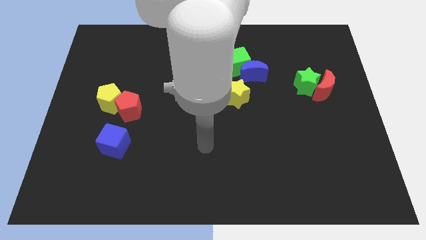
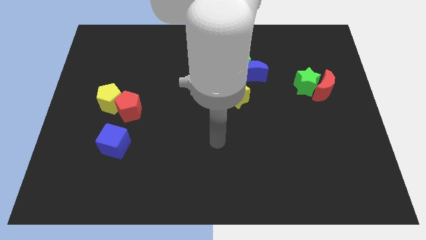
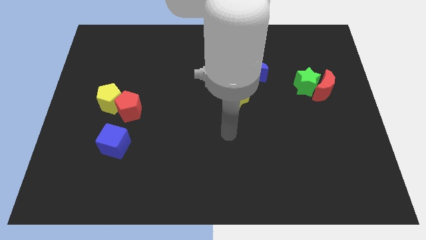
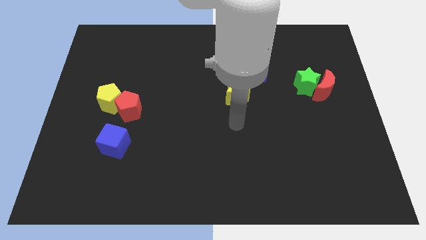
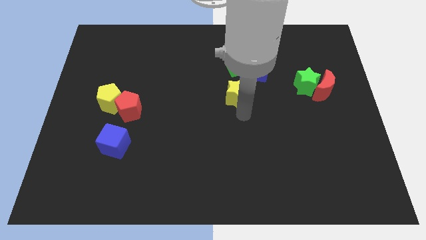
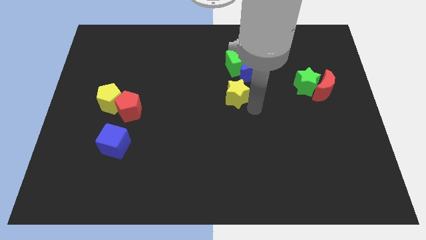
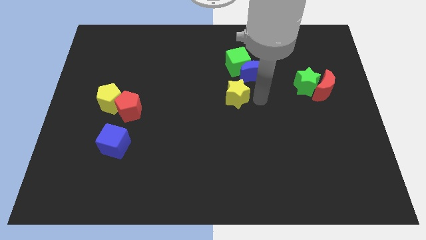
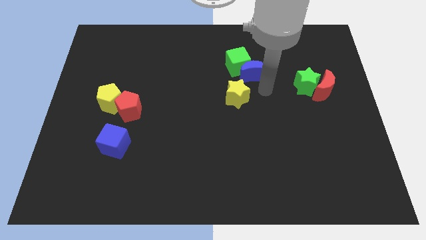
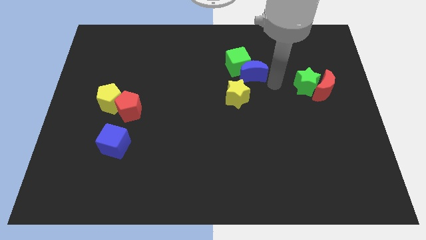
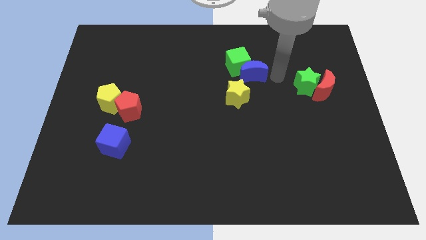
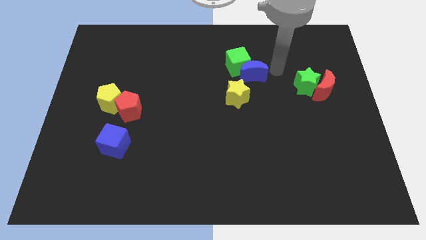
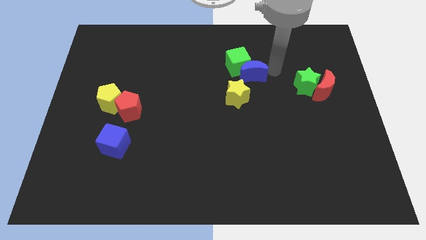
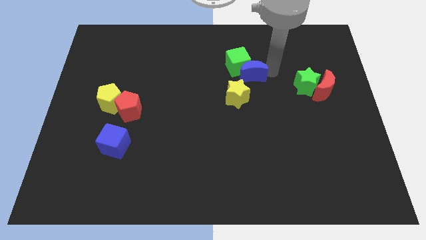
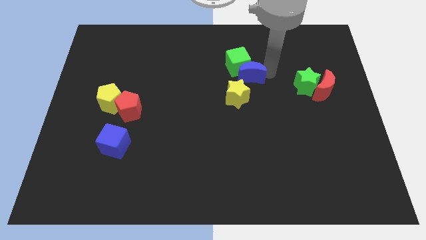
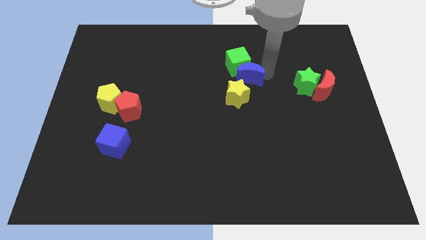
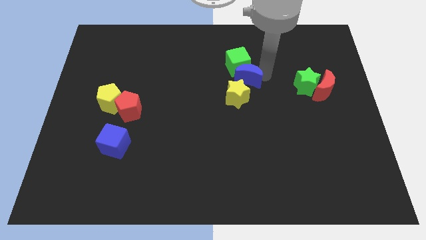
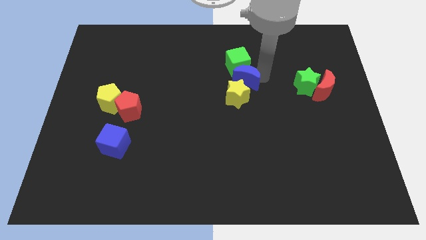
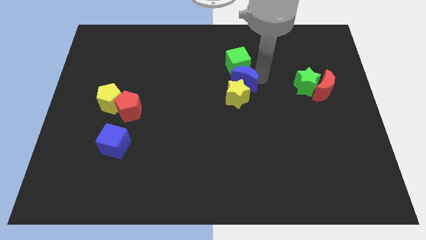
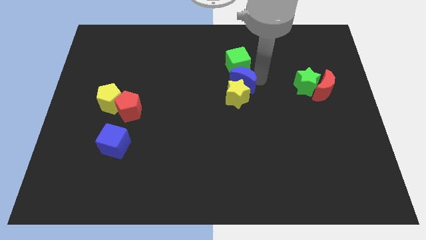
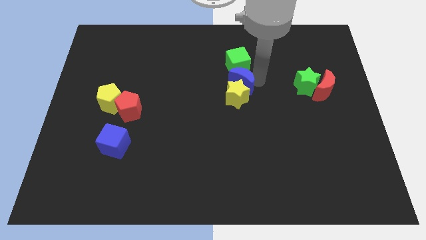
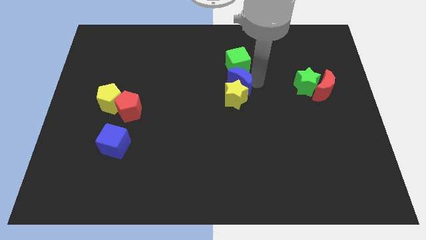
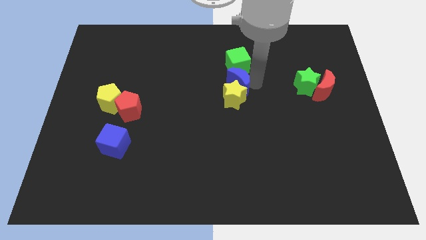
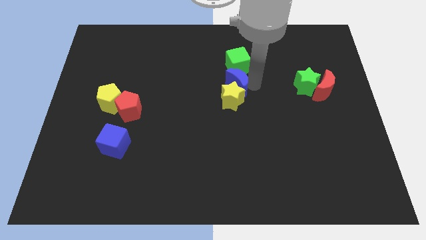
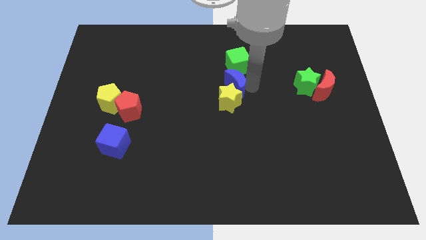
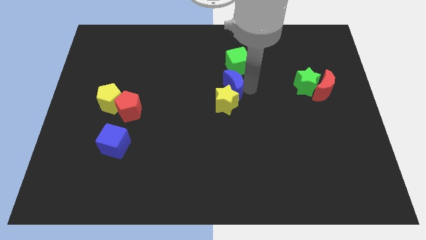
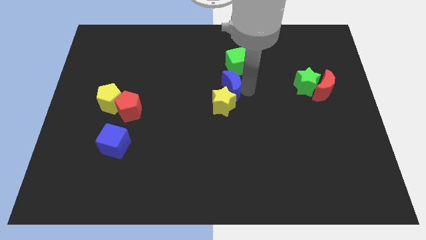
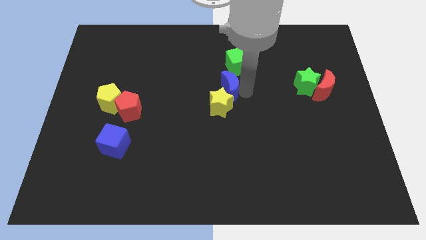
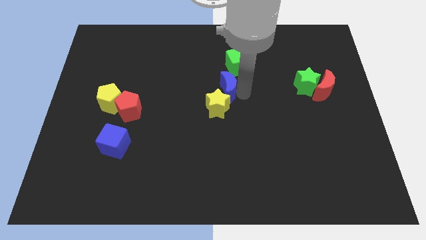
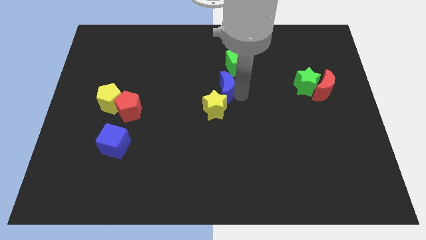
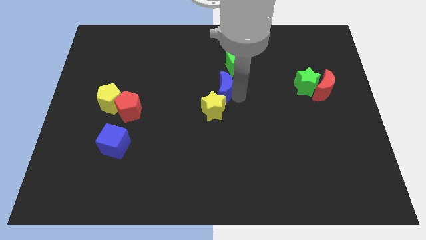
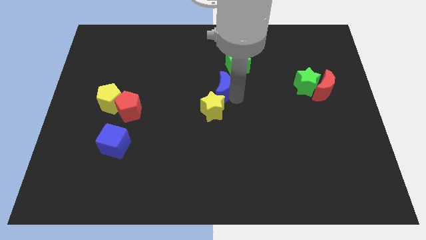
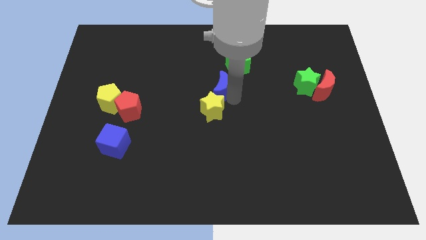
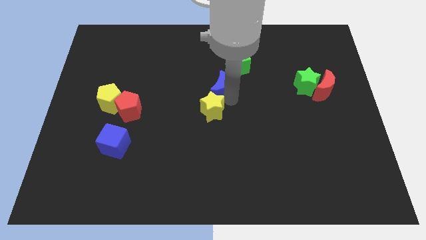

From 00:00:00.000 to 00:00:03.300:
push the blue moon to the left slightly

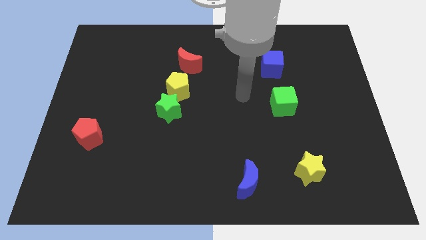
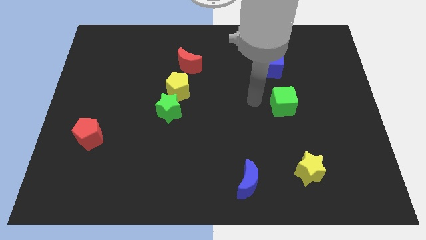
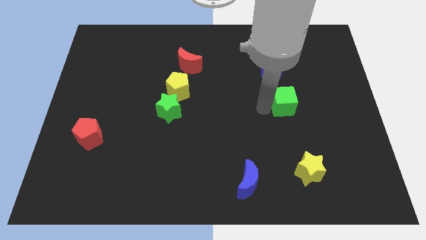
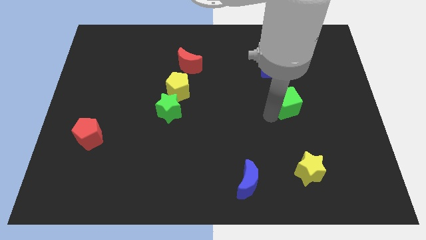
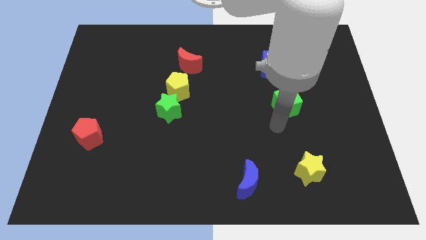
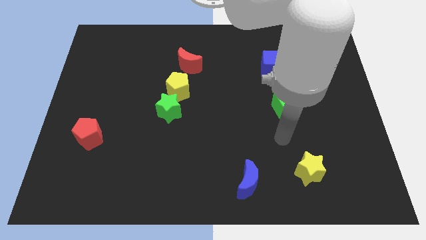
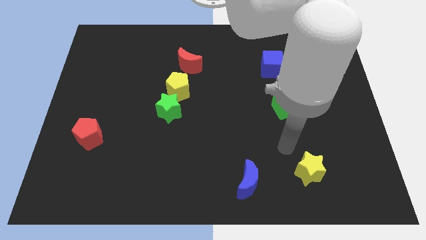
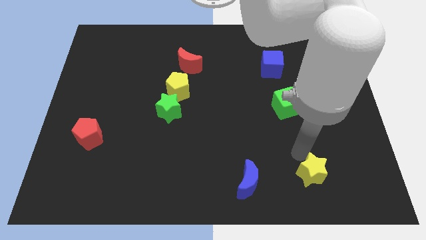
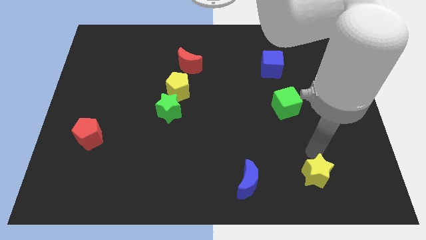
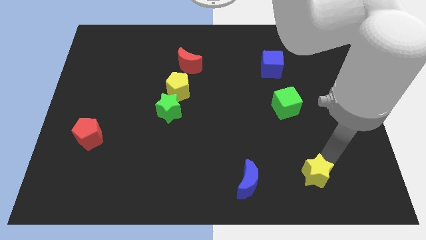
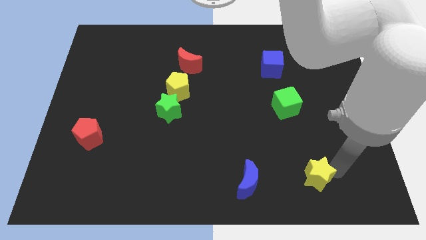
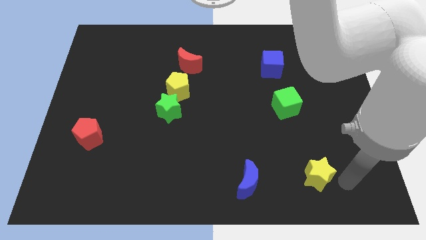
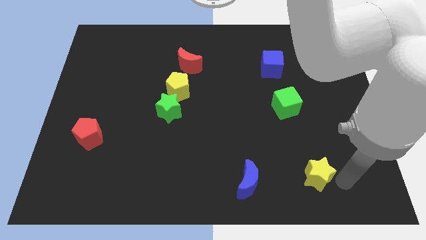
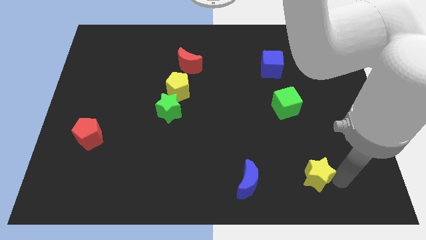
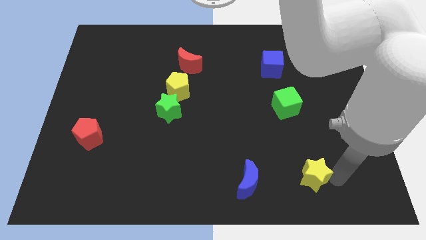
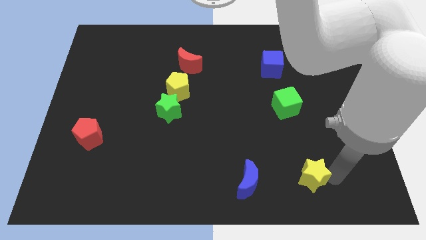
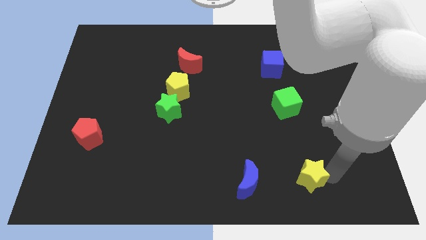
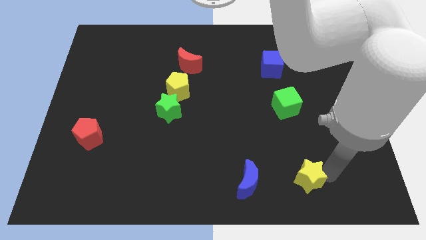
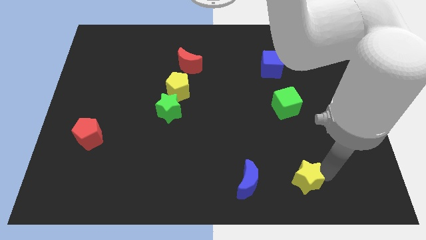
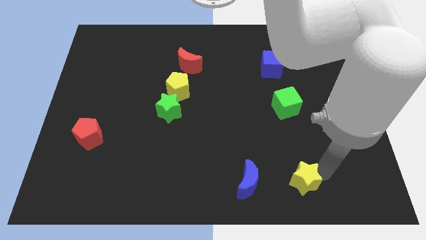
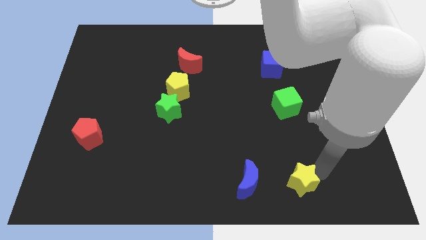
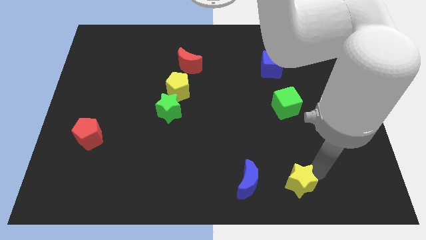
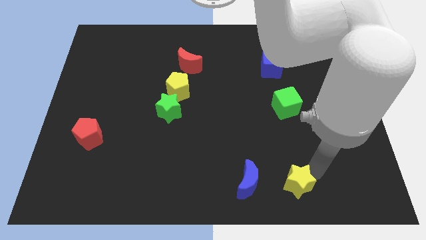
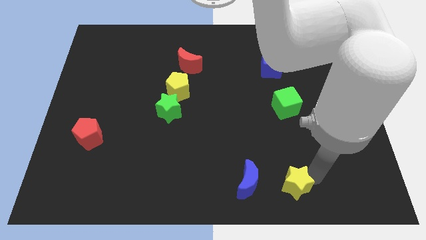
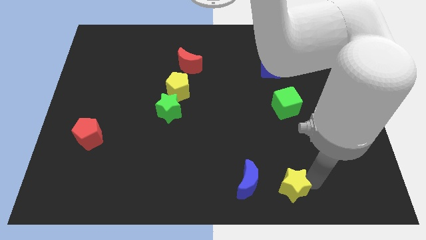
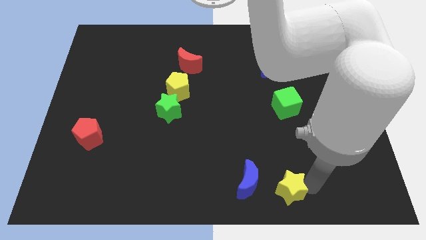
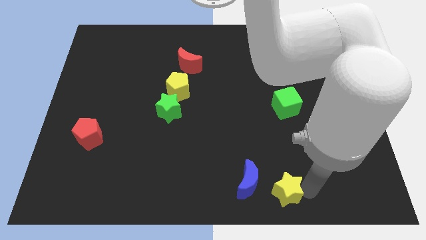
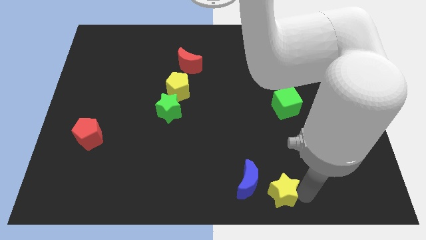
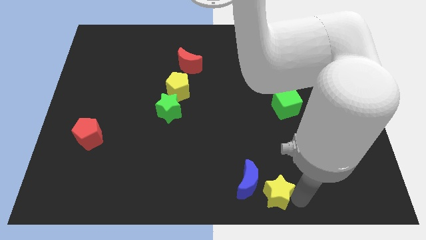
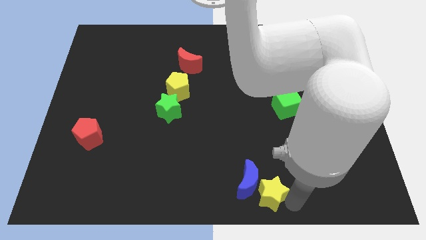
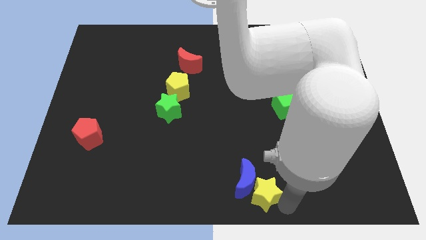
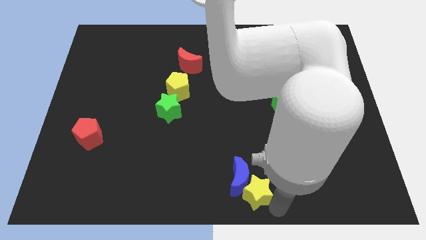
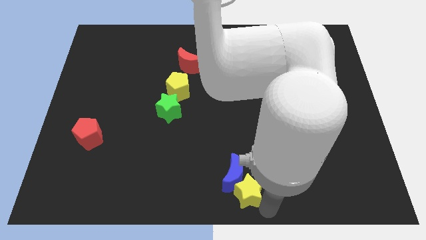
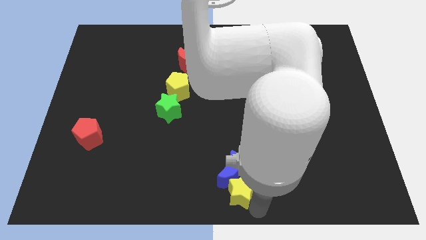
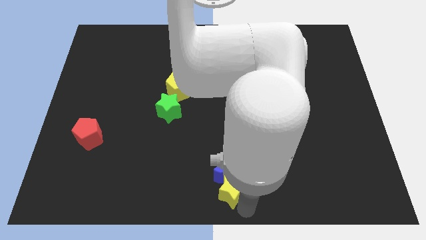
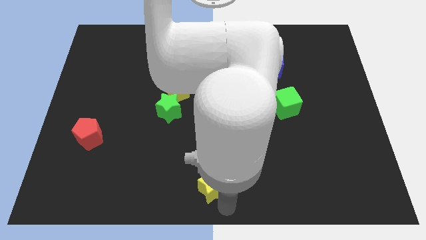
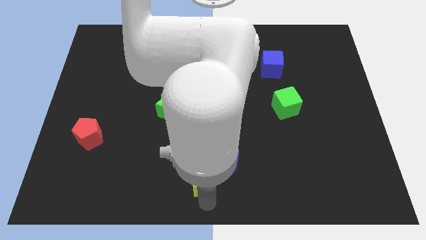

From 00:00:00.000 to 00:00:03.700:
move the yellow star to the left

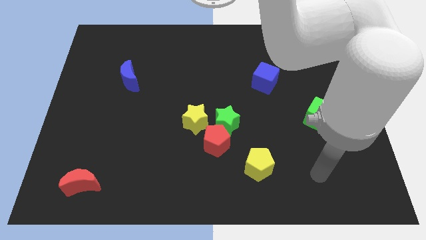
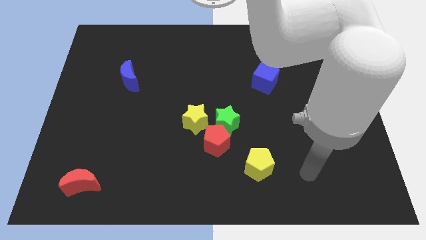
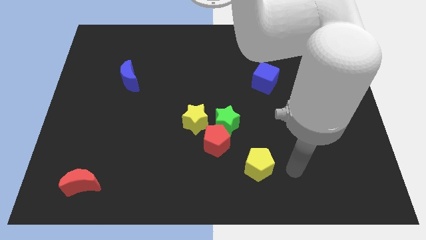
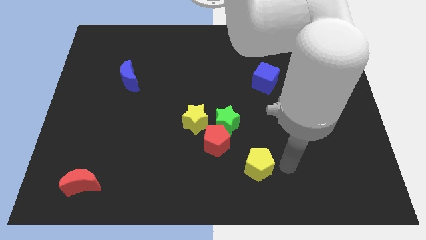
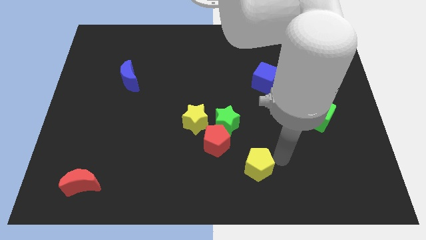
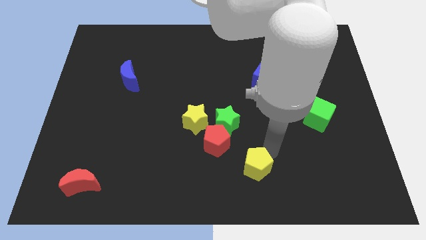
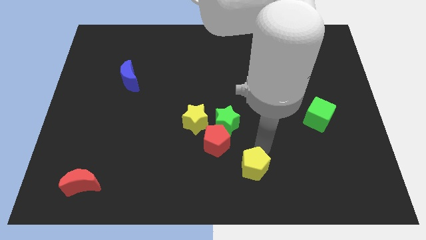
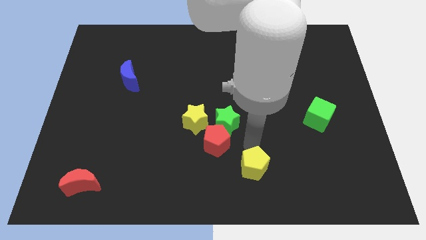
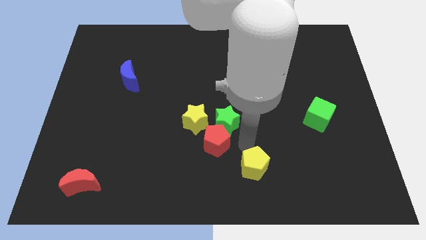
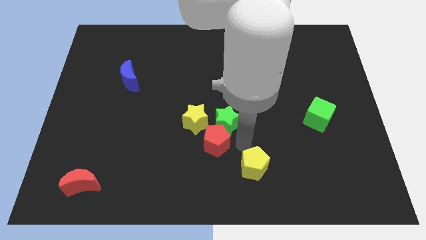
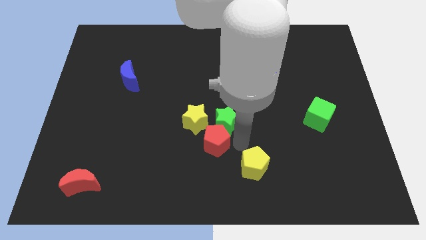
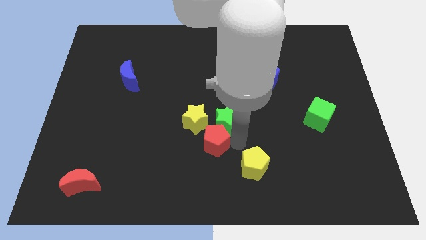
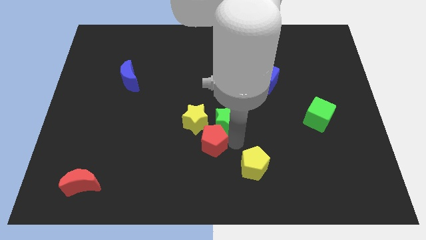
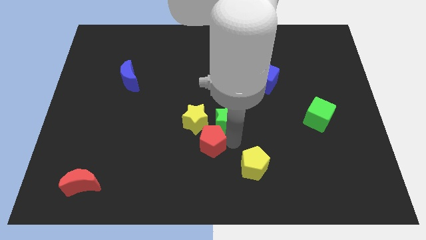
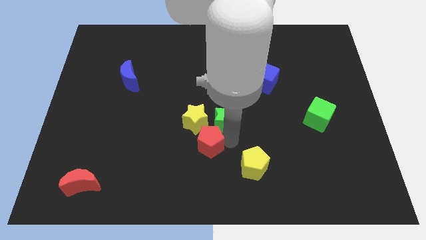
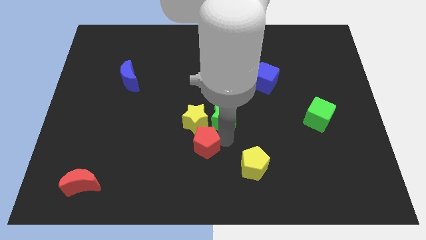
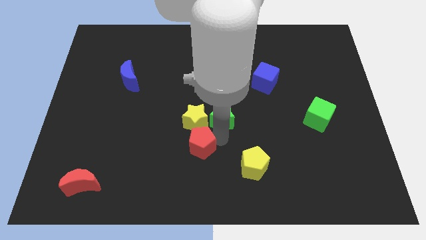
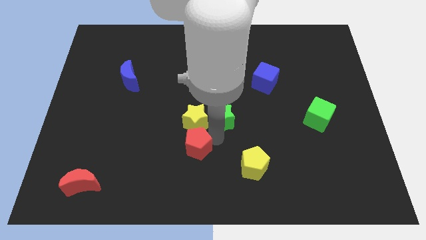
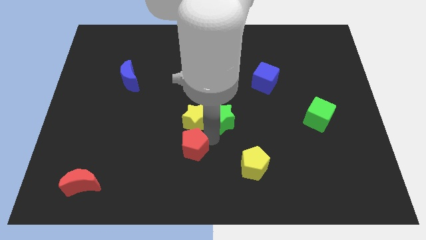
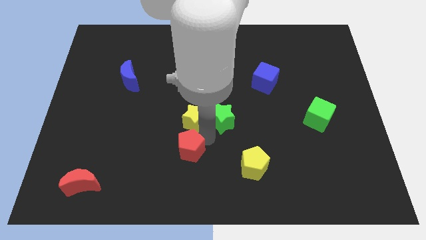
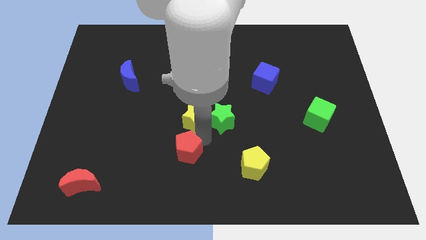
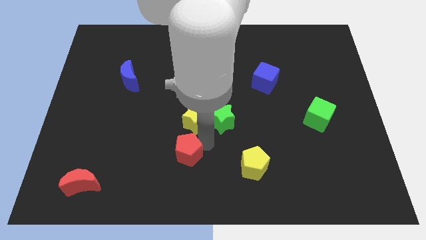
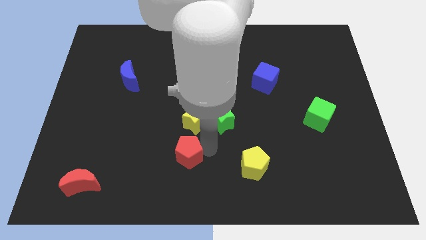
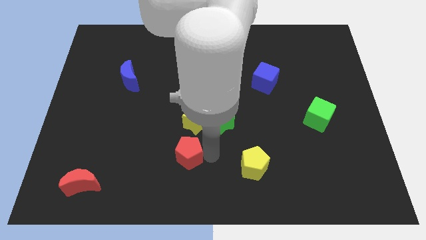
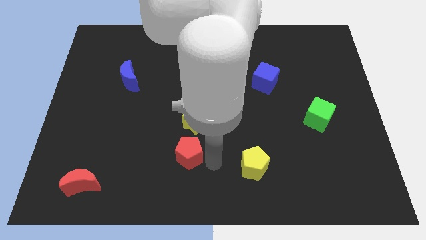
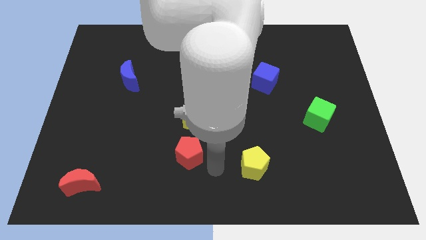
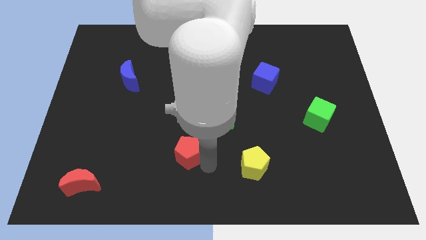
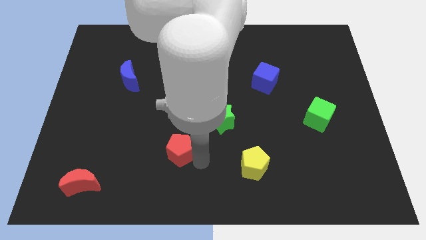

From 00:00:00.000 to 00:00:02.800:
push the red pentagon to the left somewhat
